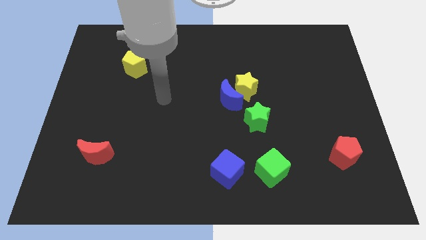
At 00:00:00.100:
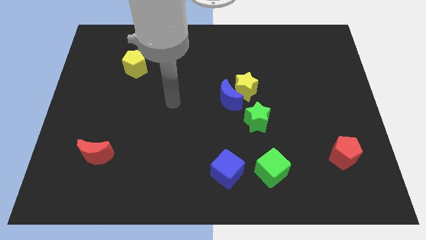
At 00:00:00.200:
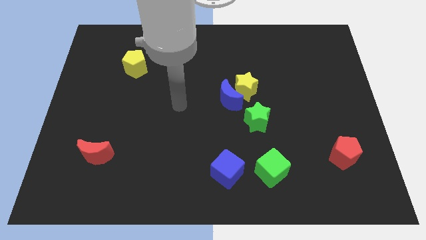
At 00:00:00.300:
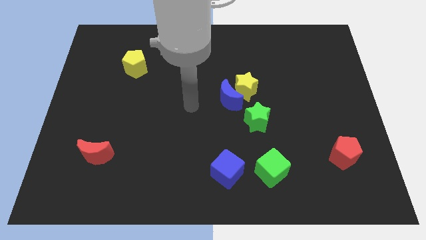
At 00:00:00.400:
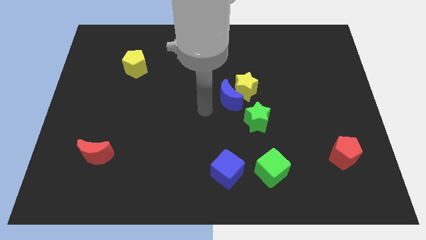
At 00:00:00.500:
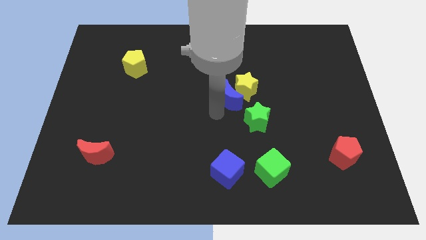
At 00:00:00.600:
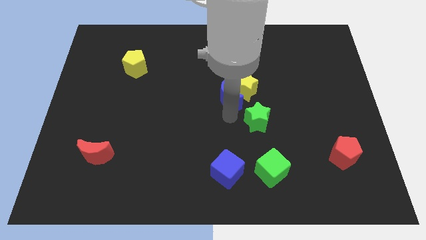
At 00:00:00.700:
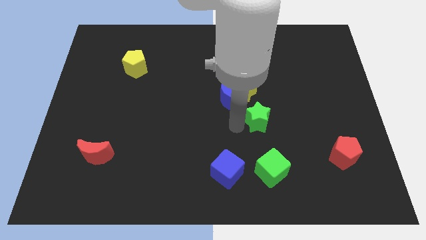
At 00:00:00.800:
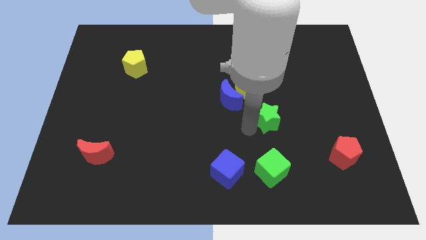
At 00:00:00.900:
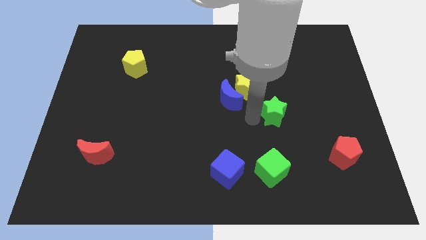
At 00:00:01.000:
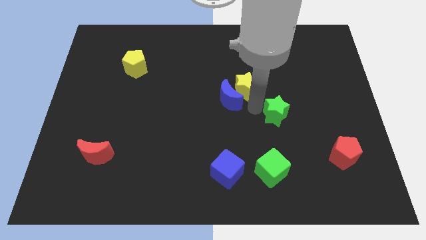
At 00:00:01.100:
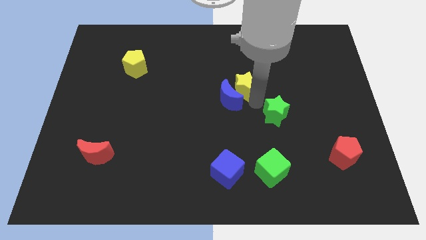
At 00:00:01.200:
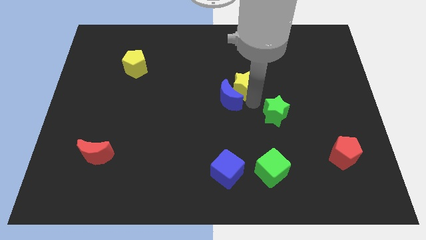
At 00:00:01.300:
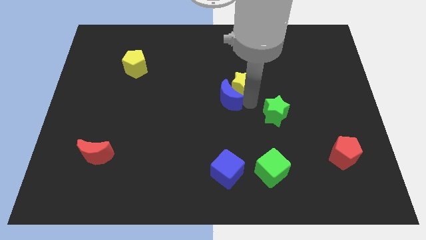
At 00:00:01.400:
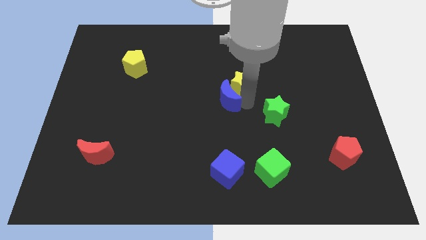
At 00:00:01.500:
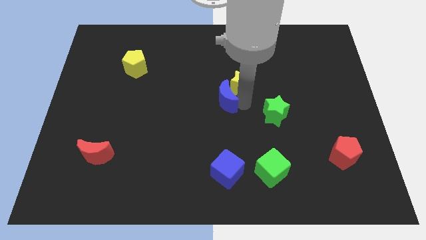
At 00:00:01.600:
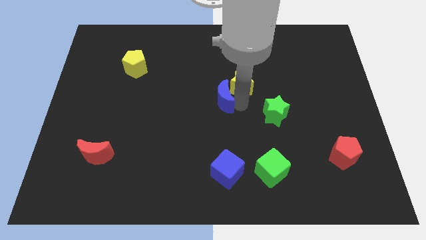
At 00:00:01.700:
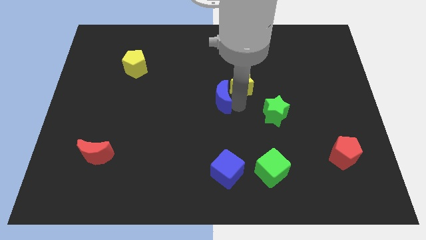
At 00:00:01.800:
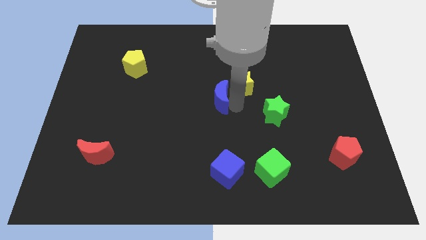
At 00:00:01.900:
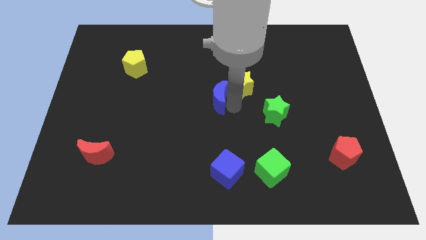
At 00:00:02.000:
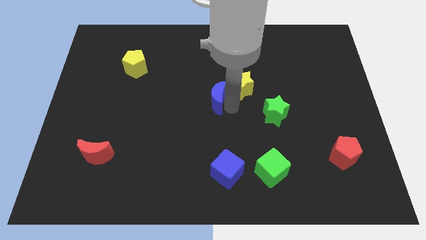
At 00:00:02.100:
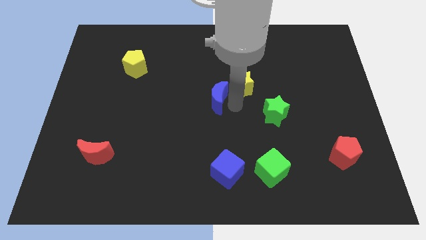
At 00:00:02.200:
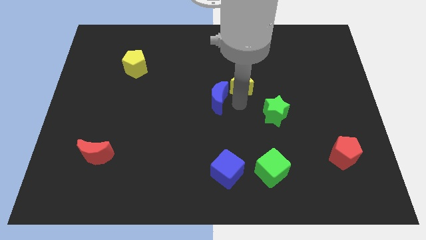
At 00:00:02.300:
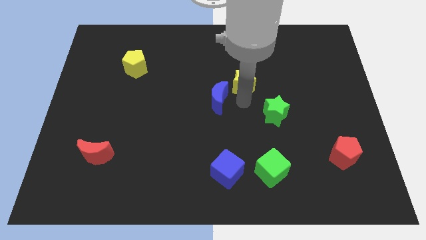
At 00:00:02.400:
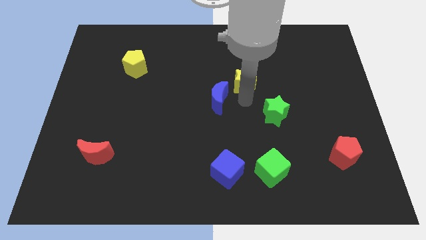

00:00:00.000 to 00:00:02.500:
pull the blue moon apart from the yellow star and green star

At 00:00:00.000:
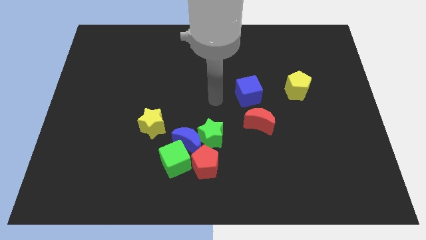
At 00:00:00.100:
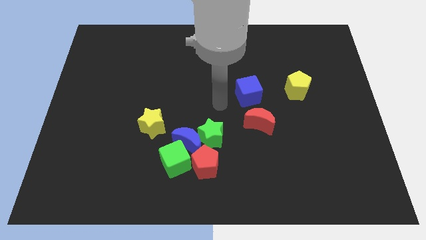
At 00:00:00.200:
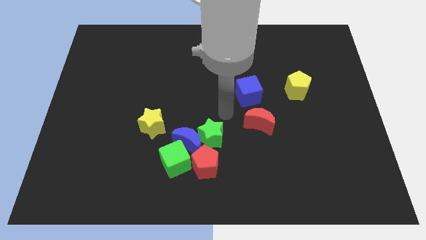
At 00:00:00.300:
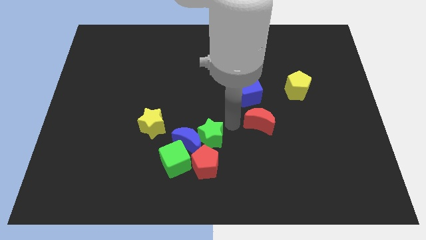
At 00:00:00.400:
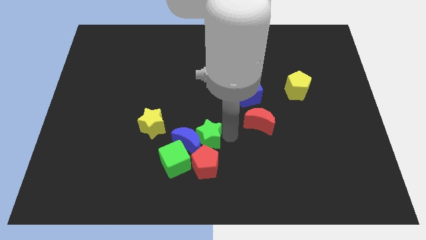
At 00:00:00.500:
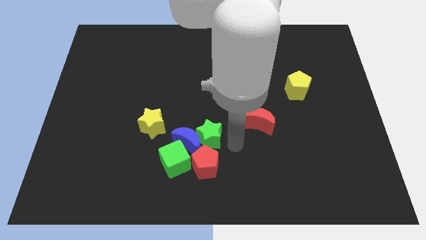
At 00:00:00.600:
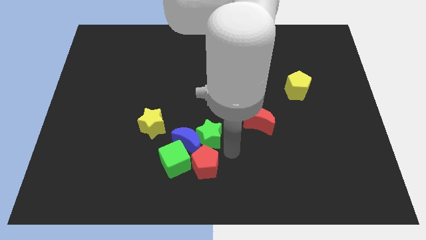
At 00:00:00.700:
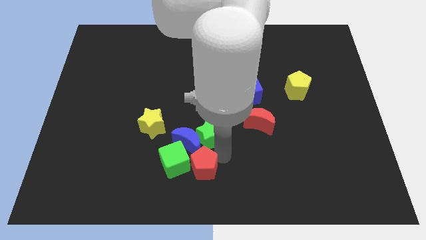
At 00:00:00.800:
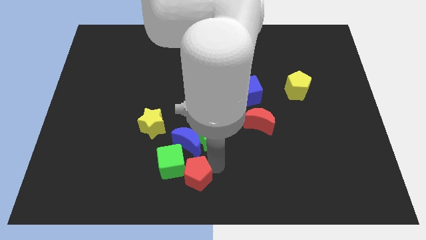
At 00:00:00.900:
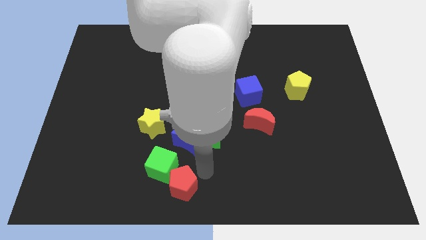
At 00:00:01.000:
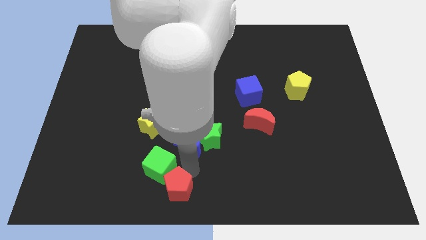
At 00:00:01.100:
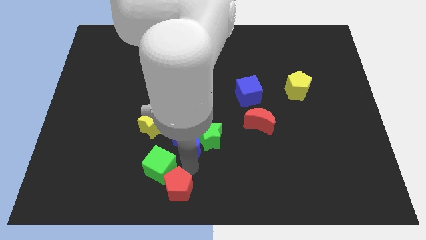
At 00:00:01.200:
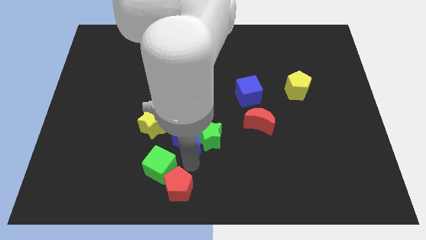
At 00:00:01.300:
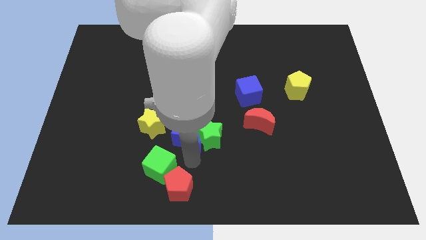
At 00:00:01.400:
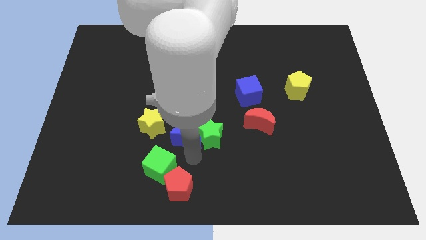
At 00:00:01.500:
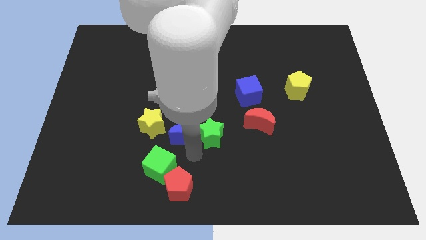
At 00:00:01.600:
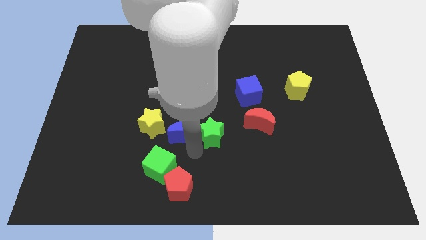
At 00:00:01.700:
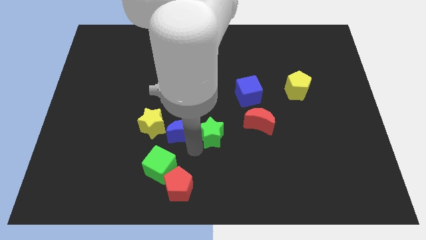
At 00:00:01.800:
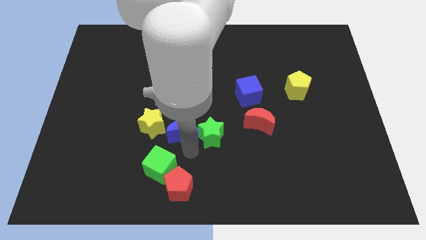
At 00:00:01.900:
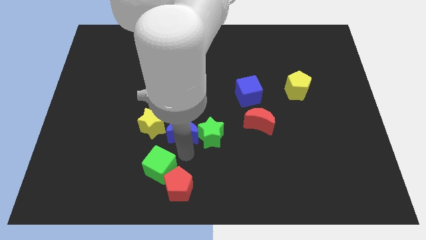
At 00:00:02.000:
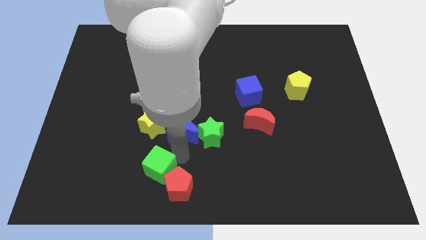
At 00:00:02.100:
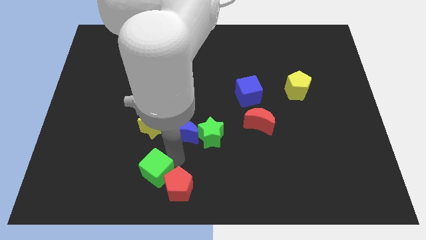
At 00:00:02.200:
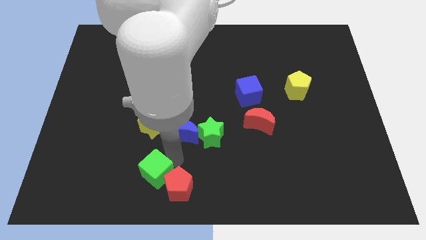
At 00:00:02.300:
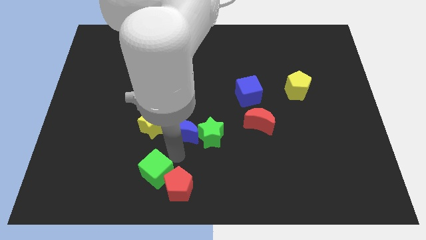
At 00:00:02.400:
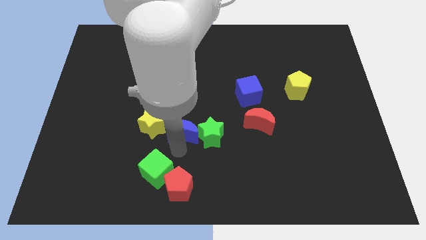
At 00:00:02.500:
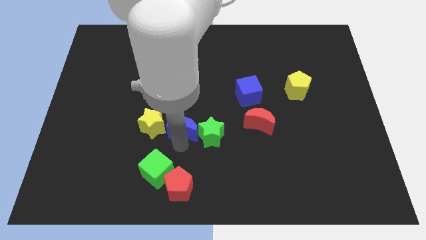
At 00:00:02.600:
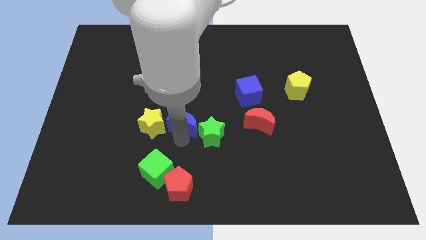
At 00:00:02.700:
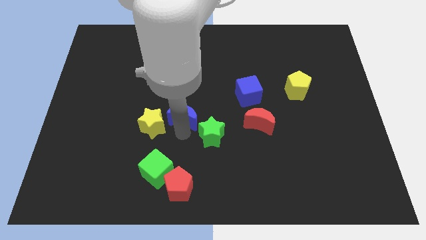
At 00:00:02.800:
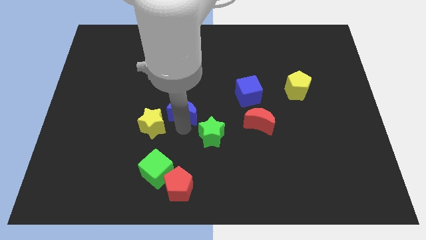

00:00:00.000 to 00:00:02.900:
separate the blue moon from the group

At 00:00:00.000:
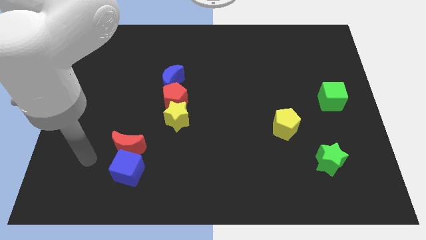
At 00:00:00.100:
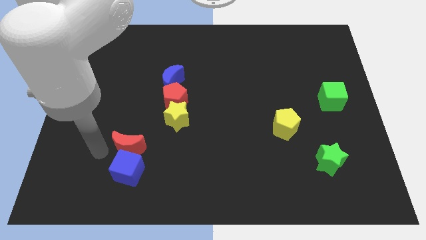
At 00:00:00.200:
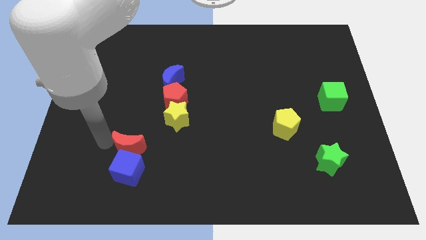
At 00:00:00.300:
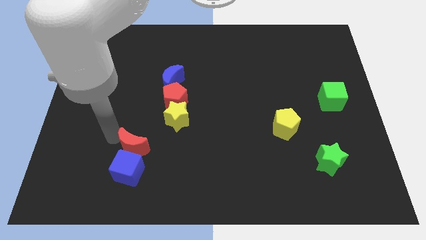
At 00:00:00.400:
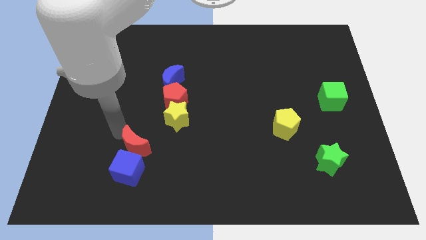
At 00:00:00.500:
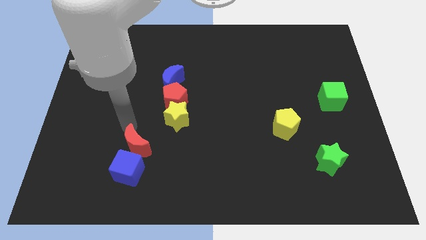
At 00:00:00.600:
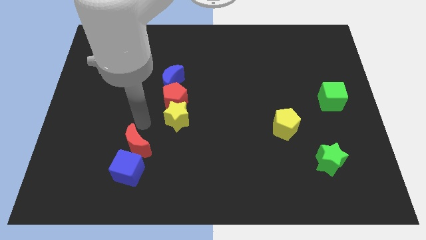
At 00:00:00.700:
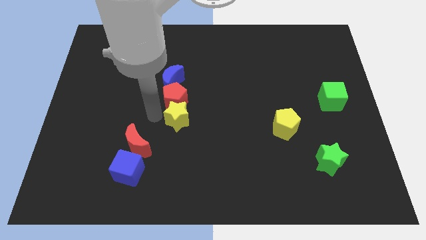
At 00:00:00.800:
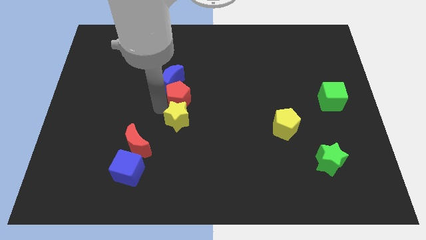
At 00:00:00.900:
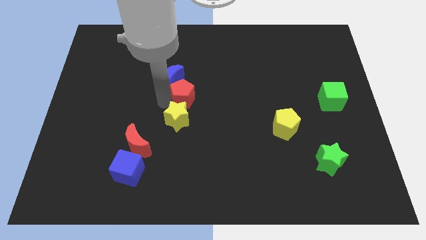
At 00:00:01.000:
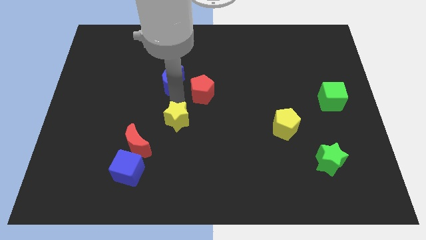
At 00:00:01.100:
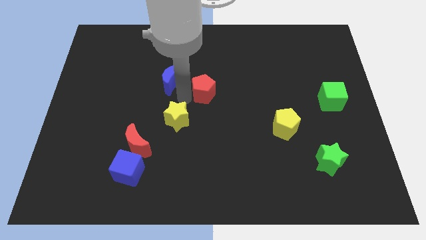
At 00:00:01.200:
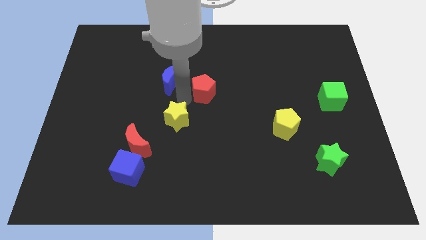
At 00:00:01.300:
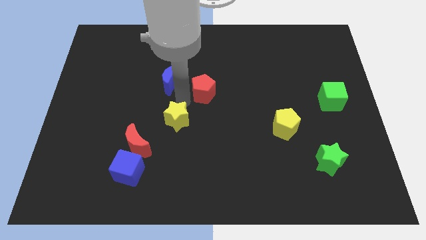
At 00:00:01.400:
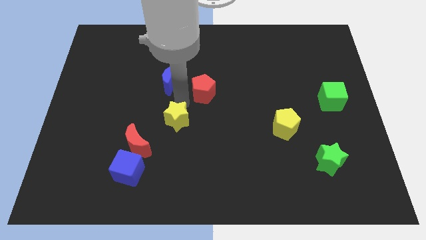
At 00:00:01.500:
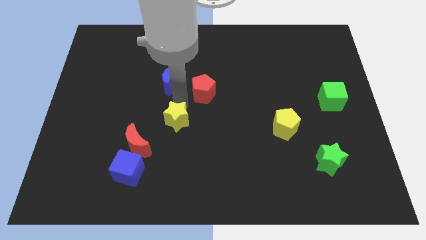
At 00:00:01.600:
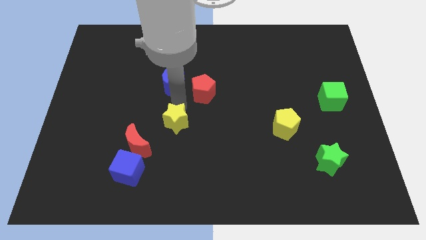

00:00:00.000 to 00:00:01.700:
separate the yellow star from the red pentagon

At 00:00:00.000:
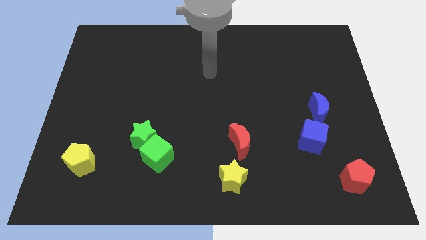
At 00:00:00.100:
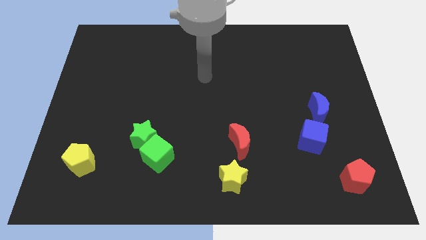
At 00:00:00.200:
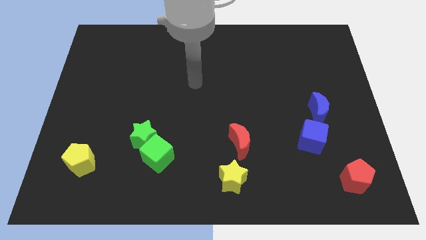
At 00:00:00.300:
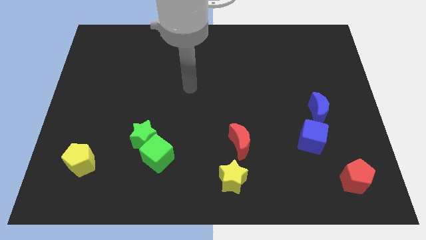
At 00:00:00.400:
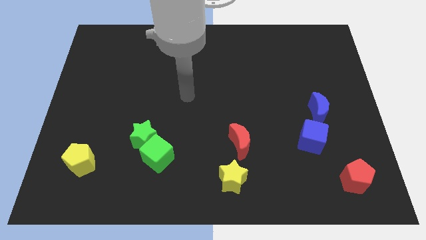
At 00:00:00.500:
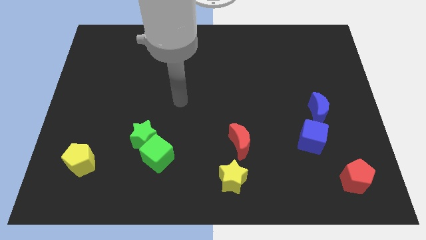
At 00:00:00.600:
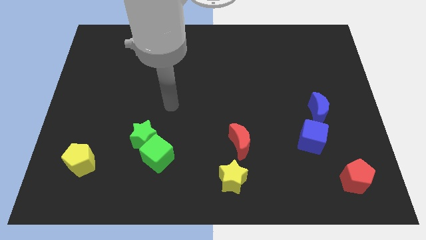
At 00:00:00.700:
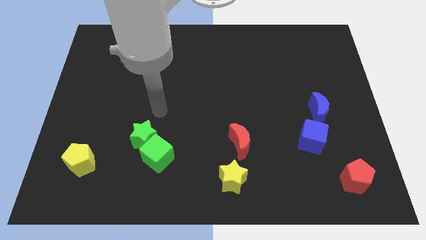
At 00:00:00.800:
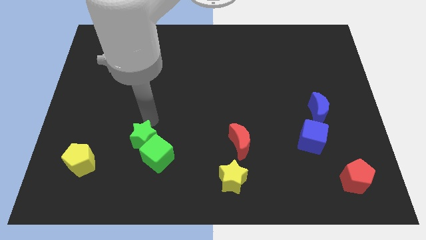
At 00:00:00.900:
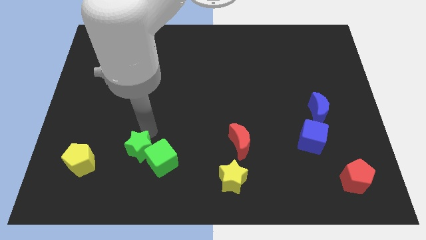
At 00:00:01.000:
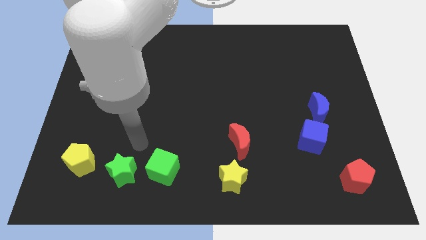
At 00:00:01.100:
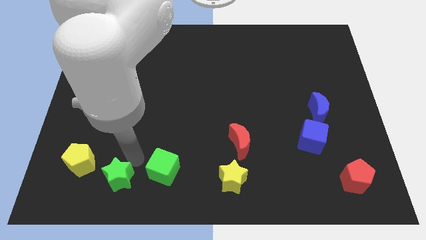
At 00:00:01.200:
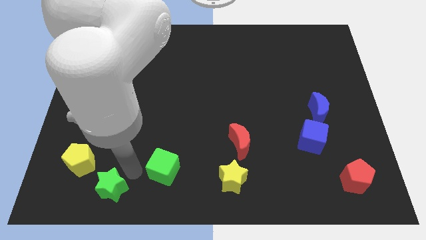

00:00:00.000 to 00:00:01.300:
pull the green cube apart from the green star

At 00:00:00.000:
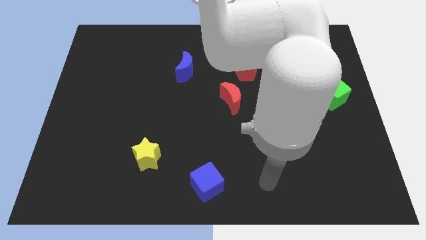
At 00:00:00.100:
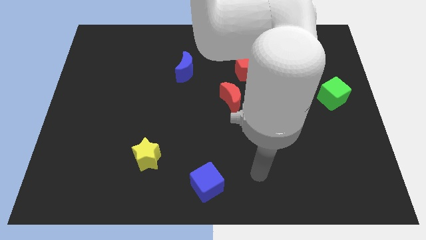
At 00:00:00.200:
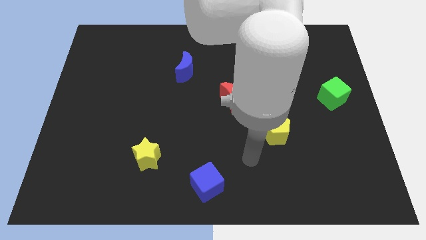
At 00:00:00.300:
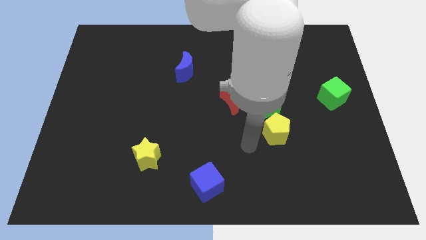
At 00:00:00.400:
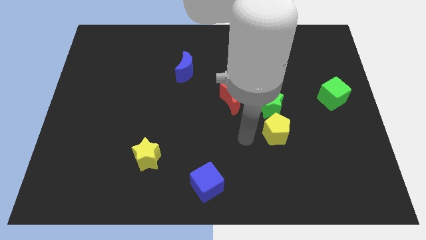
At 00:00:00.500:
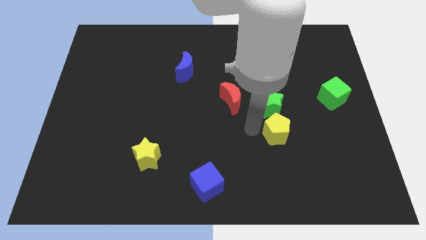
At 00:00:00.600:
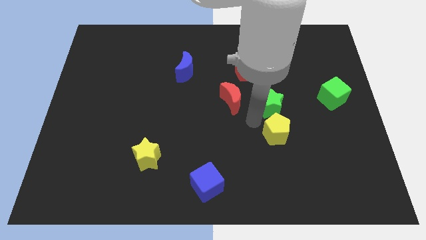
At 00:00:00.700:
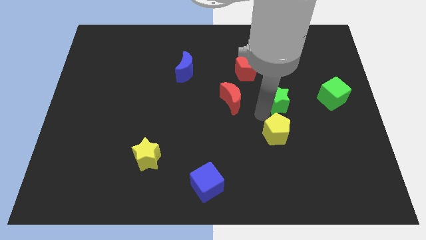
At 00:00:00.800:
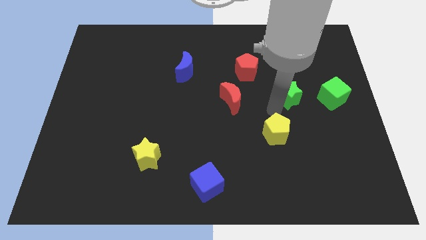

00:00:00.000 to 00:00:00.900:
separate the yellow pentagon from the green star
